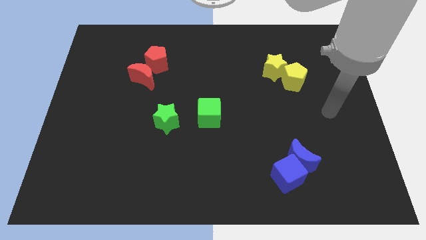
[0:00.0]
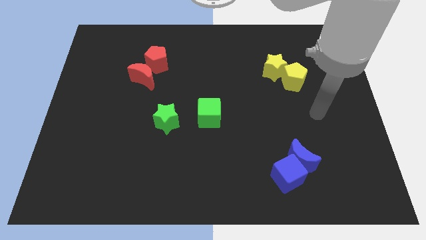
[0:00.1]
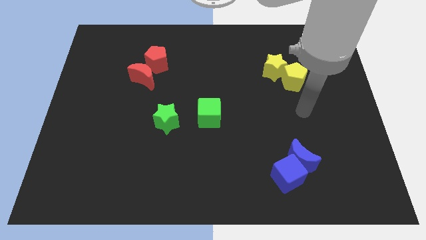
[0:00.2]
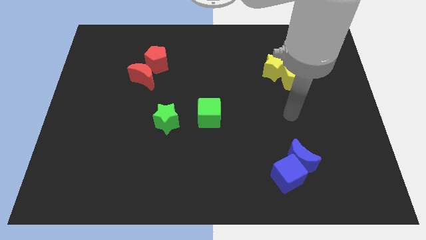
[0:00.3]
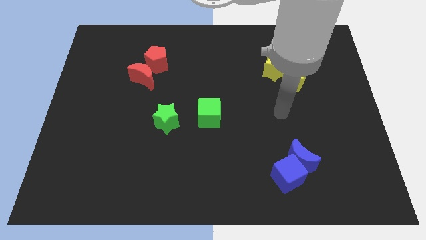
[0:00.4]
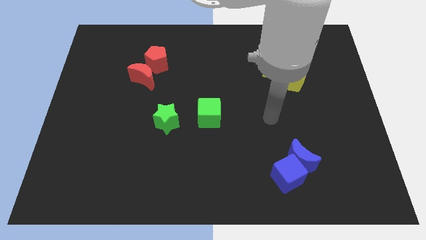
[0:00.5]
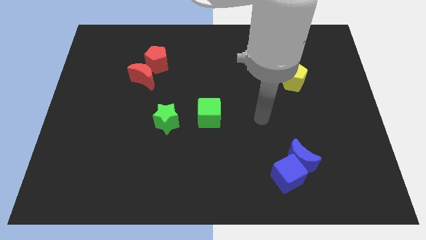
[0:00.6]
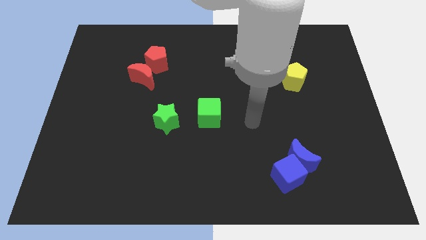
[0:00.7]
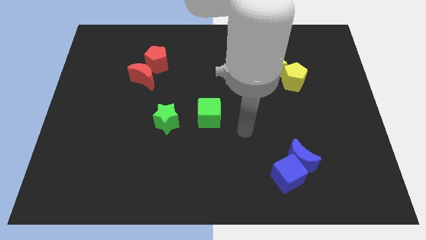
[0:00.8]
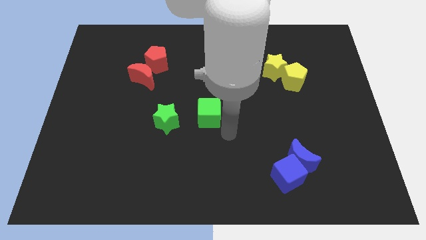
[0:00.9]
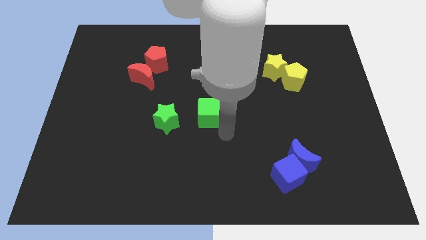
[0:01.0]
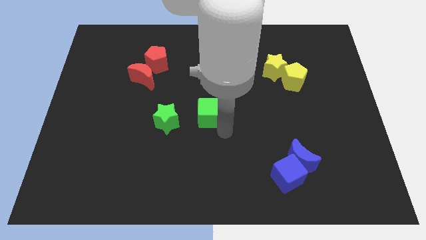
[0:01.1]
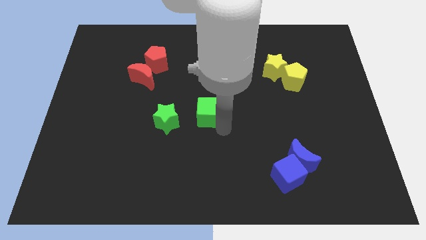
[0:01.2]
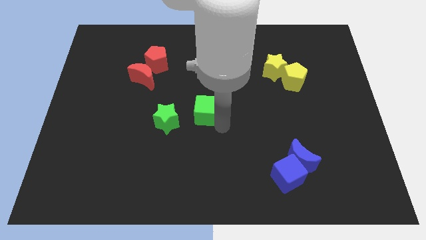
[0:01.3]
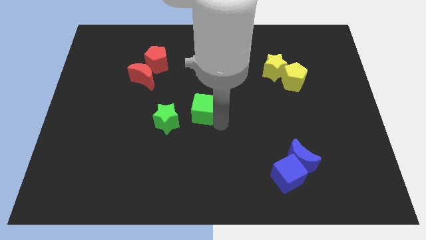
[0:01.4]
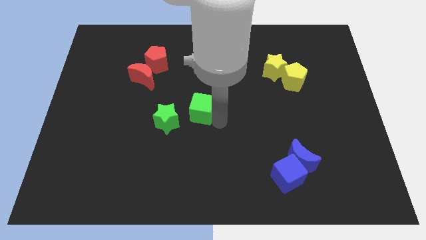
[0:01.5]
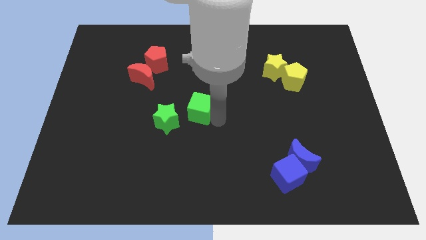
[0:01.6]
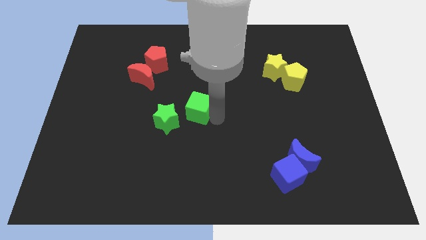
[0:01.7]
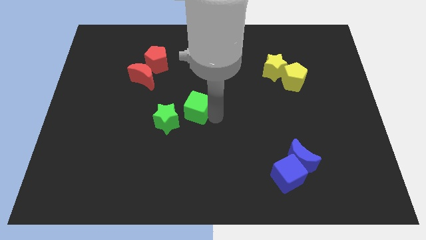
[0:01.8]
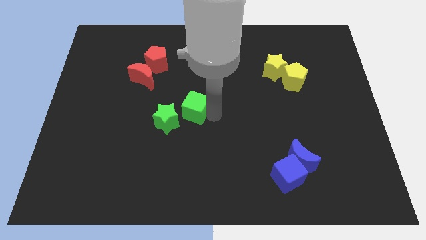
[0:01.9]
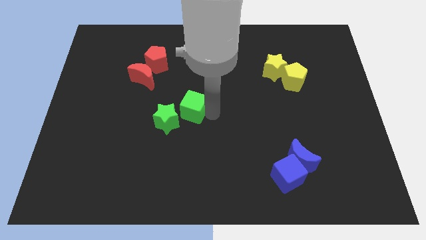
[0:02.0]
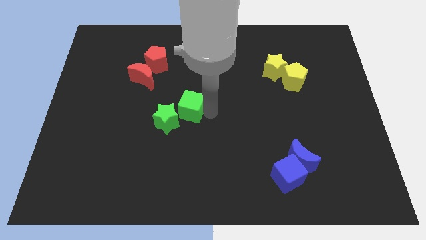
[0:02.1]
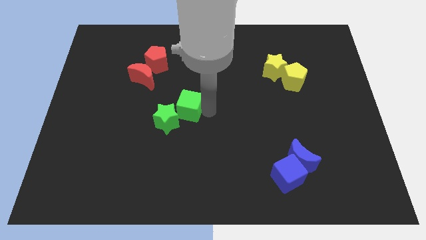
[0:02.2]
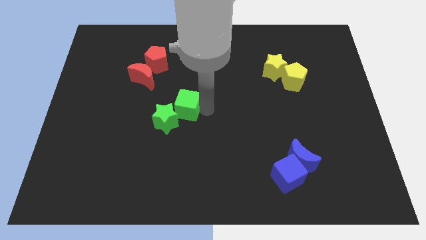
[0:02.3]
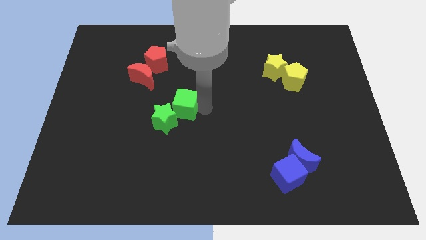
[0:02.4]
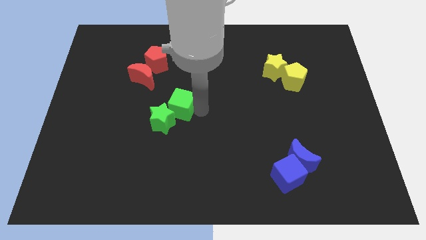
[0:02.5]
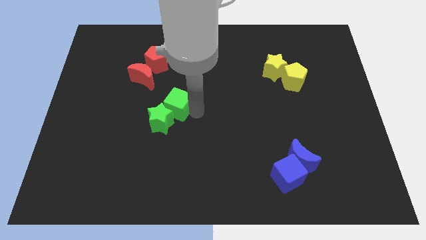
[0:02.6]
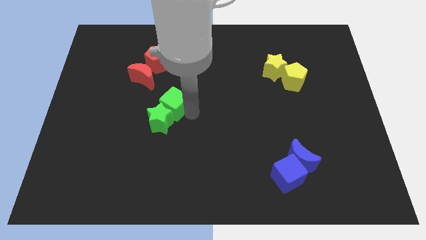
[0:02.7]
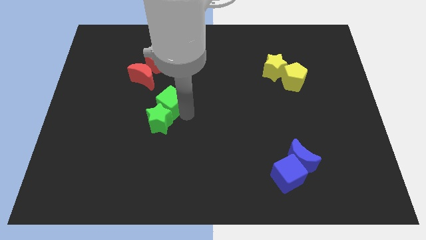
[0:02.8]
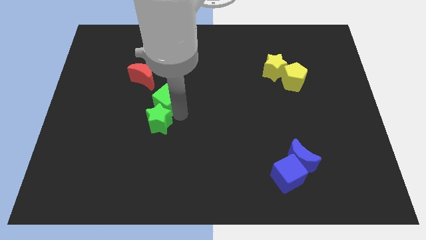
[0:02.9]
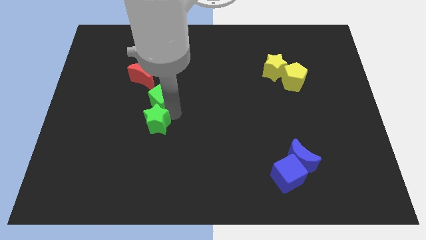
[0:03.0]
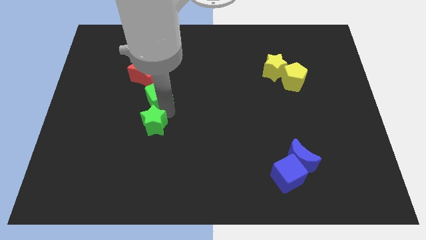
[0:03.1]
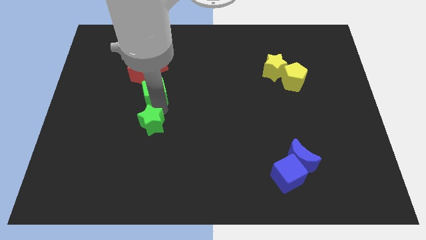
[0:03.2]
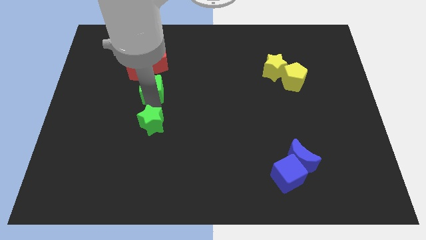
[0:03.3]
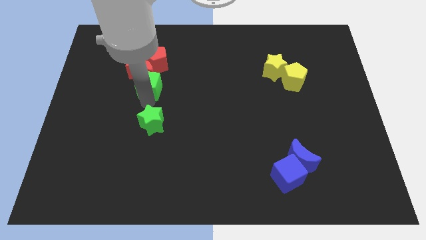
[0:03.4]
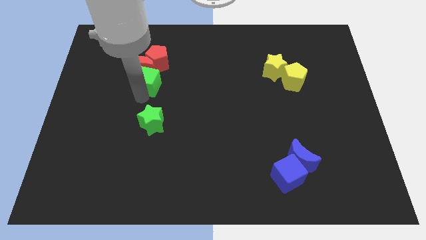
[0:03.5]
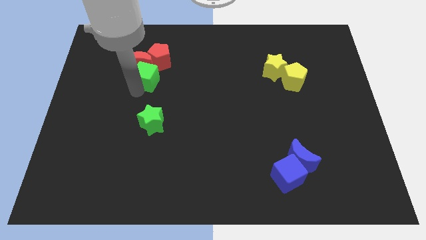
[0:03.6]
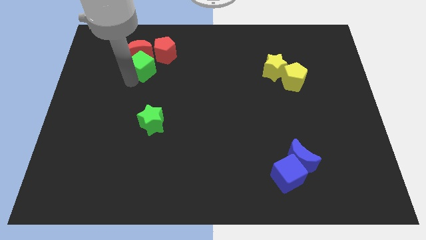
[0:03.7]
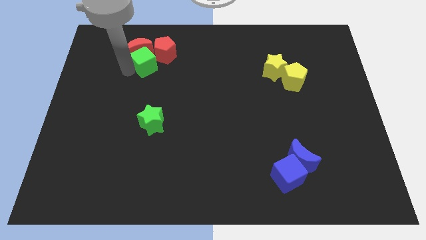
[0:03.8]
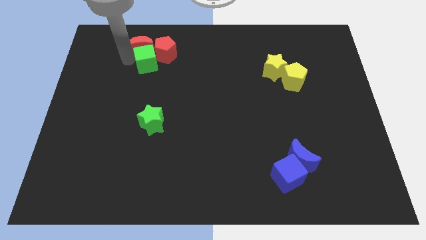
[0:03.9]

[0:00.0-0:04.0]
move the green cube close to the red pentagon

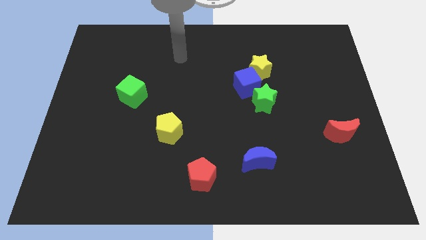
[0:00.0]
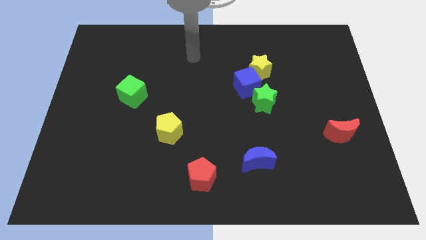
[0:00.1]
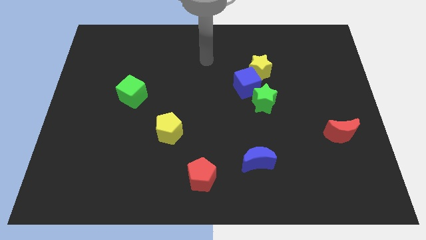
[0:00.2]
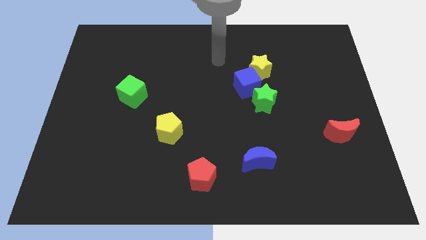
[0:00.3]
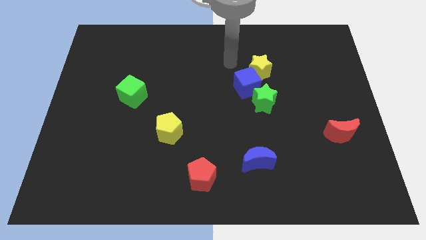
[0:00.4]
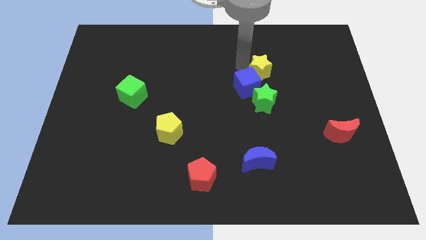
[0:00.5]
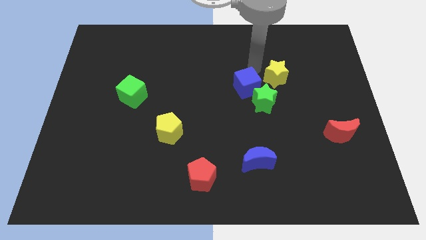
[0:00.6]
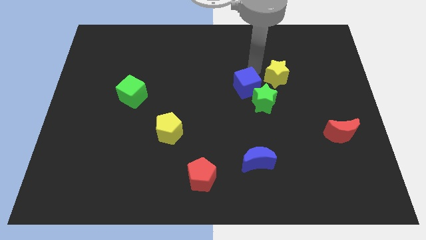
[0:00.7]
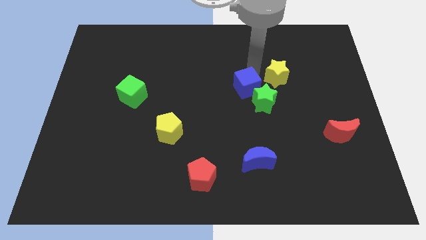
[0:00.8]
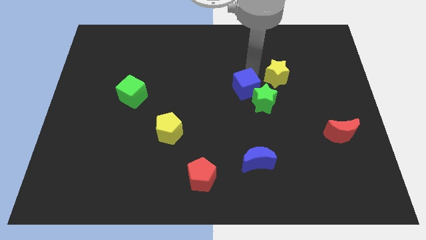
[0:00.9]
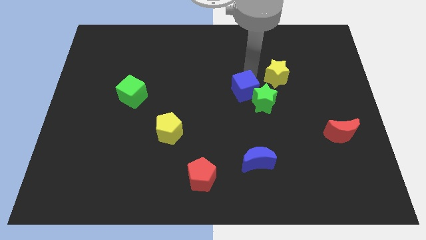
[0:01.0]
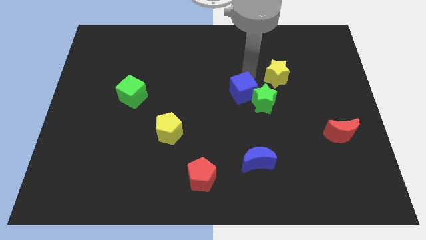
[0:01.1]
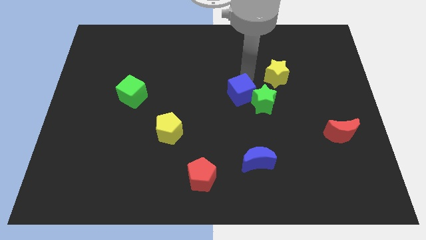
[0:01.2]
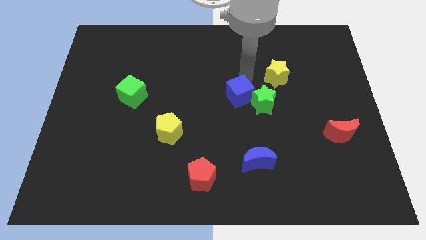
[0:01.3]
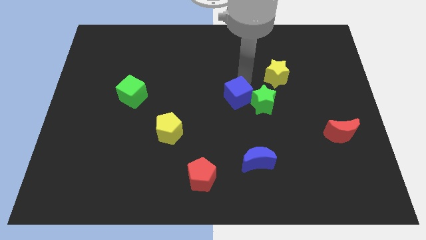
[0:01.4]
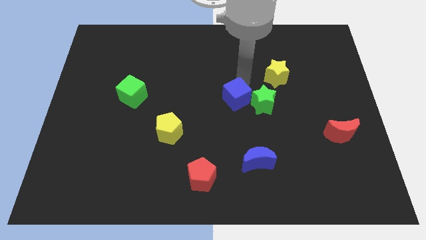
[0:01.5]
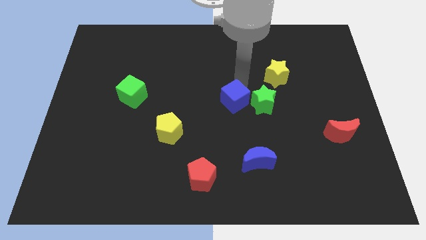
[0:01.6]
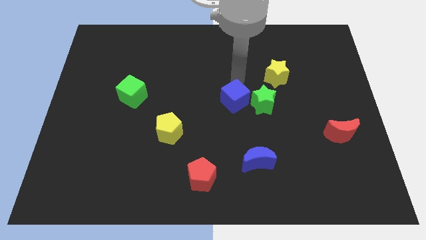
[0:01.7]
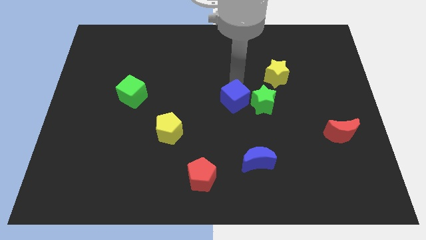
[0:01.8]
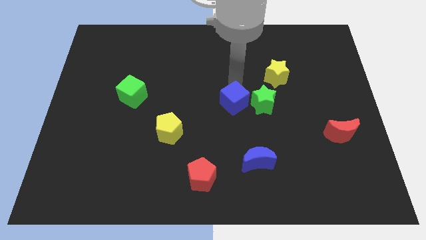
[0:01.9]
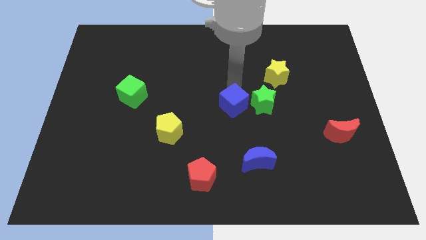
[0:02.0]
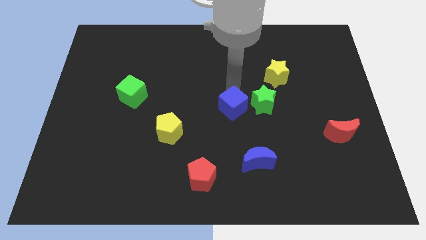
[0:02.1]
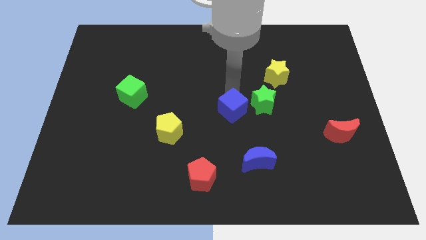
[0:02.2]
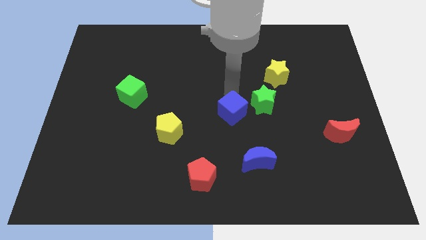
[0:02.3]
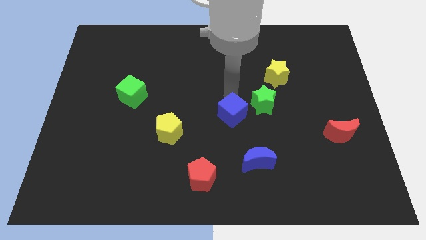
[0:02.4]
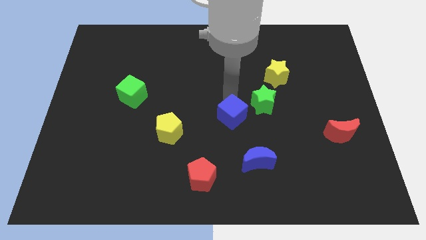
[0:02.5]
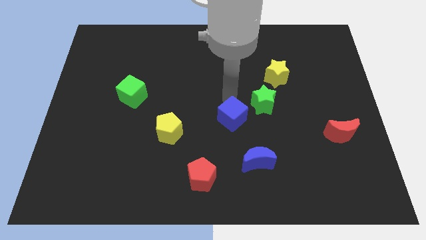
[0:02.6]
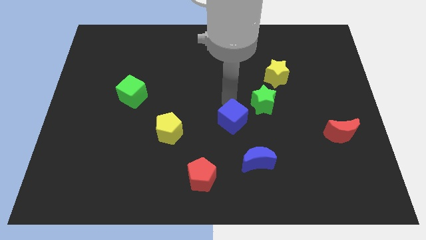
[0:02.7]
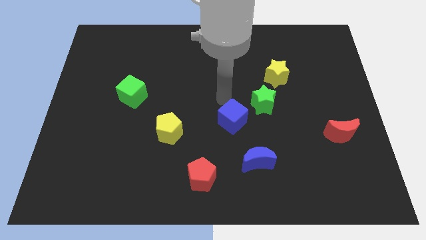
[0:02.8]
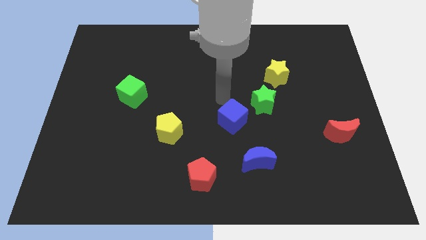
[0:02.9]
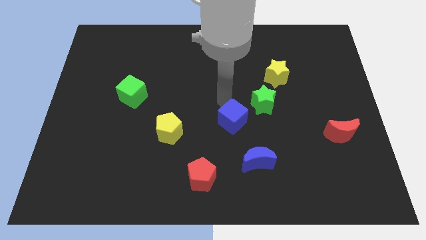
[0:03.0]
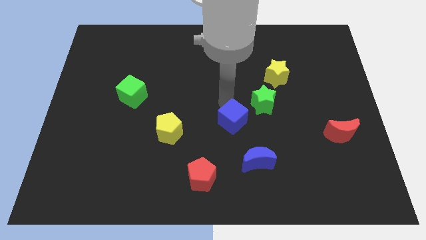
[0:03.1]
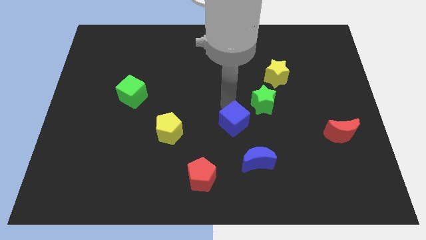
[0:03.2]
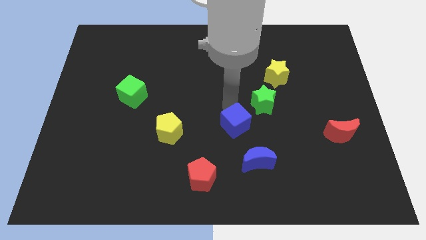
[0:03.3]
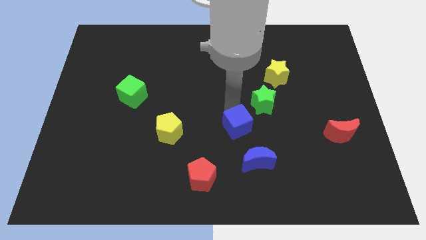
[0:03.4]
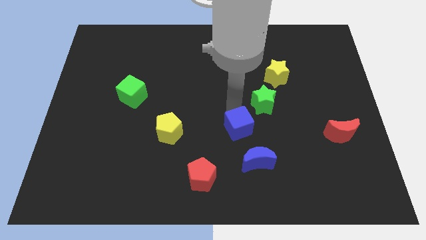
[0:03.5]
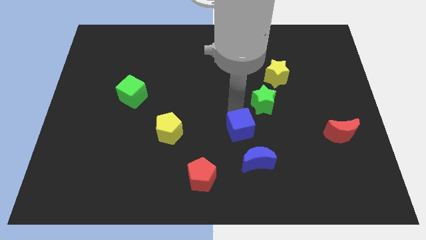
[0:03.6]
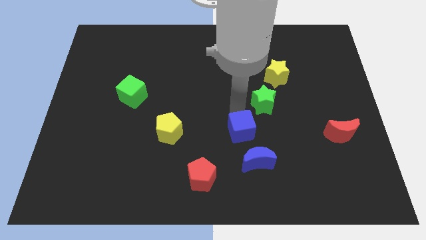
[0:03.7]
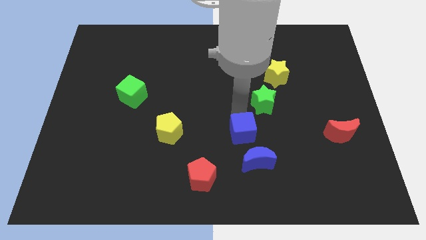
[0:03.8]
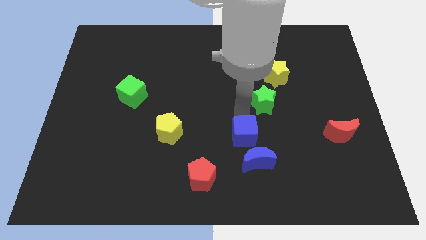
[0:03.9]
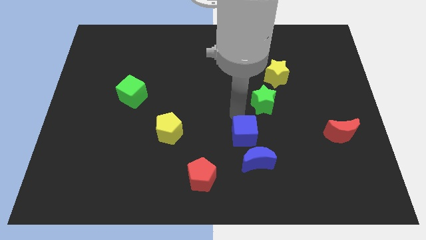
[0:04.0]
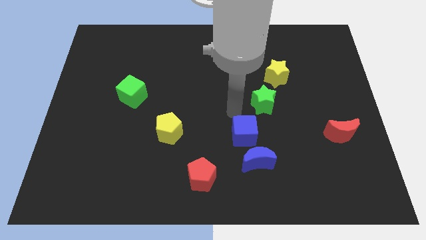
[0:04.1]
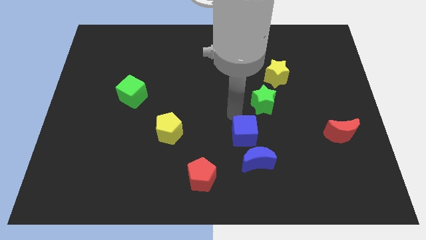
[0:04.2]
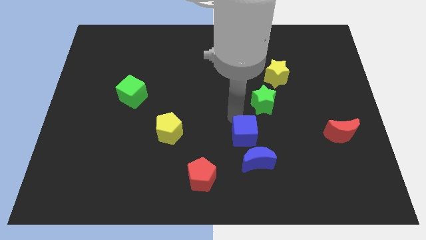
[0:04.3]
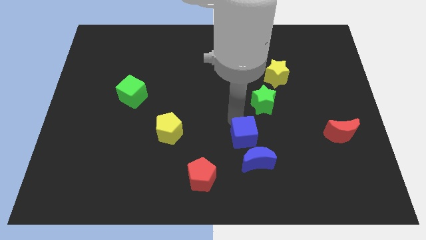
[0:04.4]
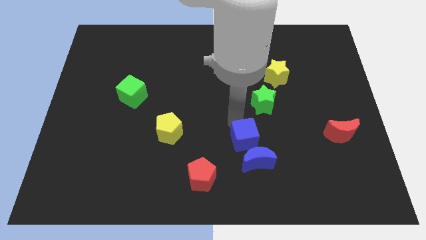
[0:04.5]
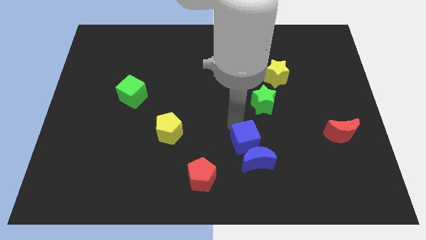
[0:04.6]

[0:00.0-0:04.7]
move the blue cube next to the blue moon
